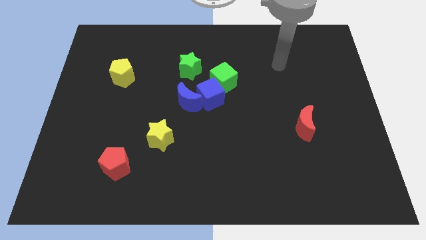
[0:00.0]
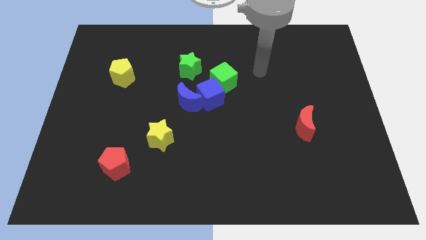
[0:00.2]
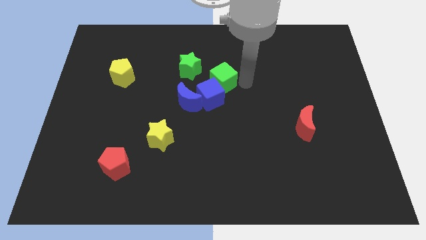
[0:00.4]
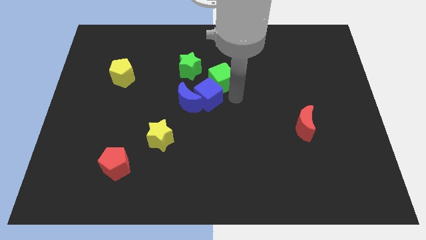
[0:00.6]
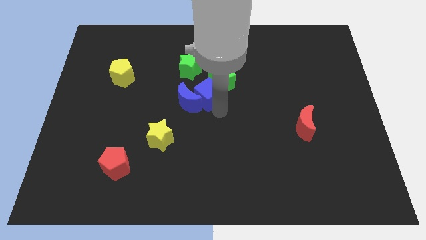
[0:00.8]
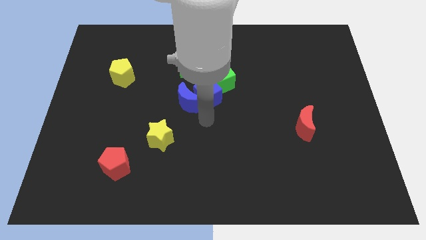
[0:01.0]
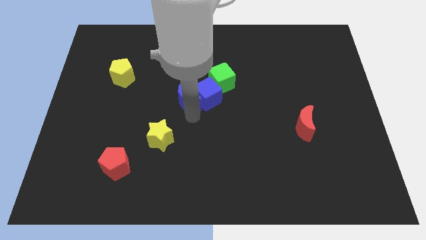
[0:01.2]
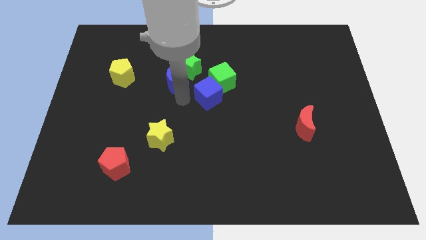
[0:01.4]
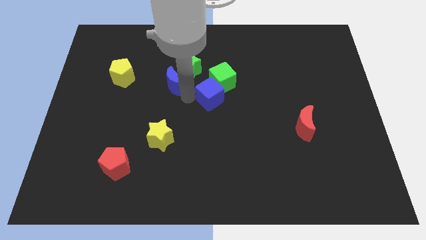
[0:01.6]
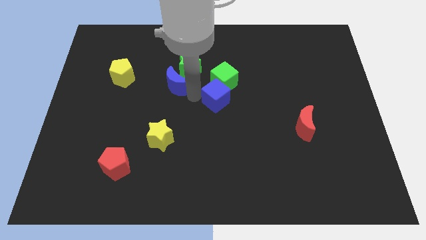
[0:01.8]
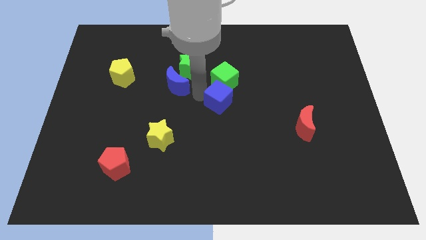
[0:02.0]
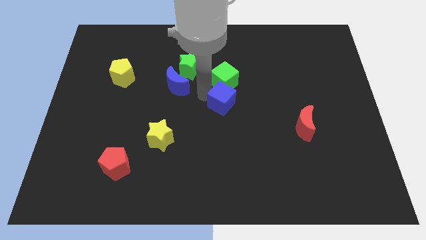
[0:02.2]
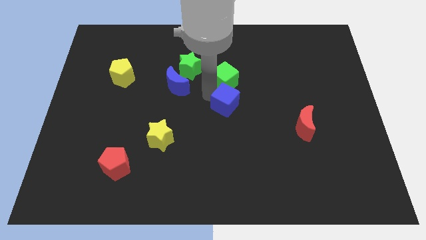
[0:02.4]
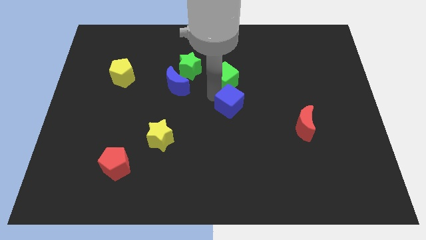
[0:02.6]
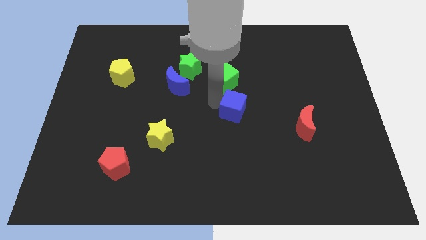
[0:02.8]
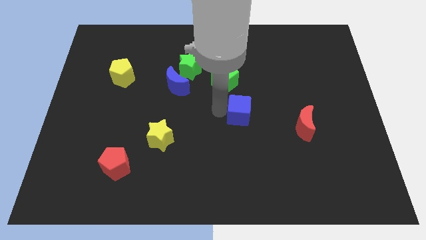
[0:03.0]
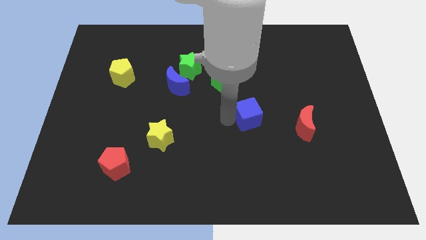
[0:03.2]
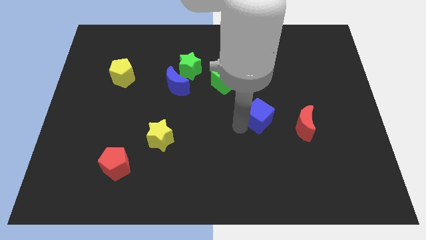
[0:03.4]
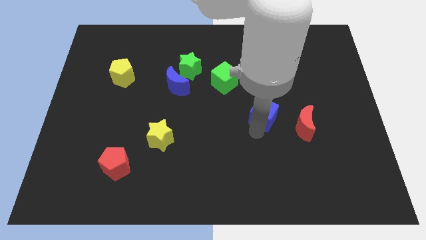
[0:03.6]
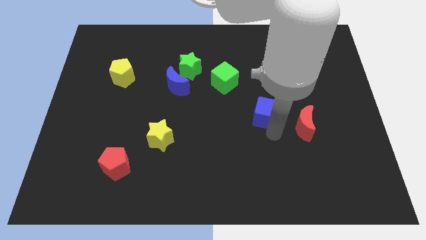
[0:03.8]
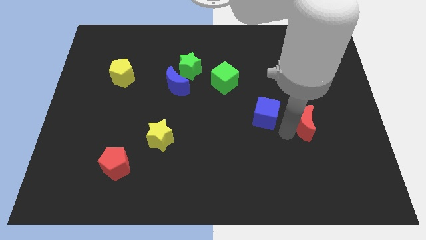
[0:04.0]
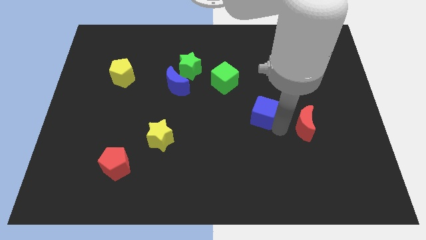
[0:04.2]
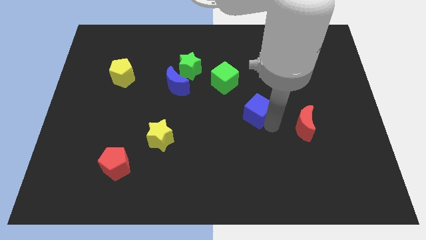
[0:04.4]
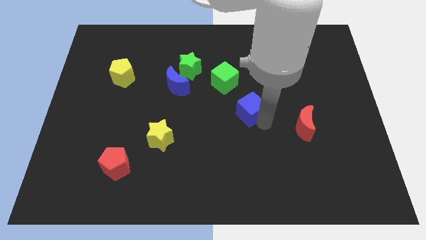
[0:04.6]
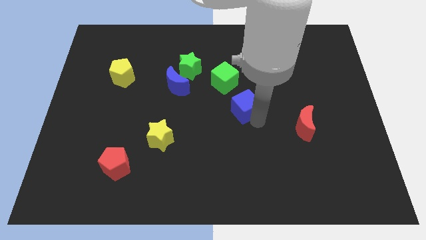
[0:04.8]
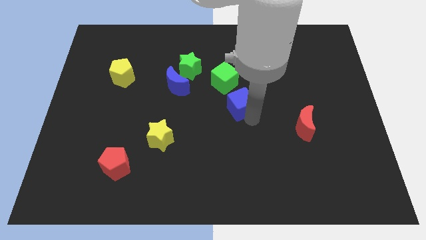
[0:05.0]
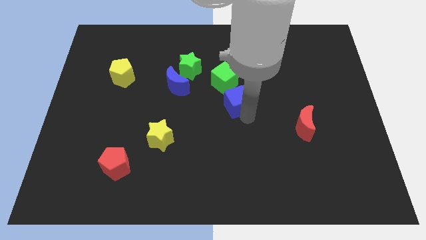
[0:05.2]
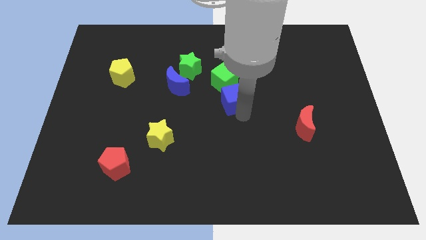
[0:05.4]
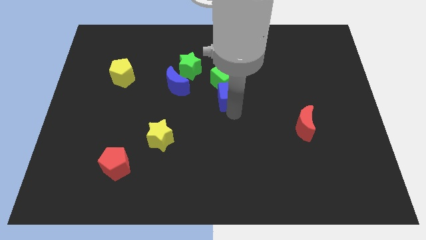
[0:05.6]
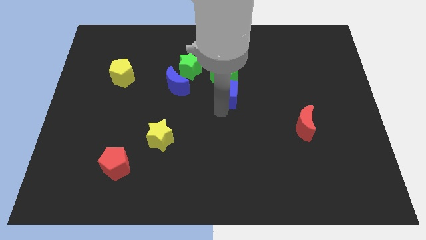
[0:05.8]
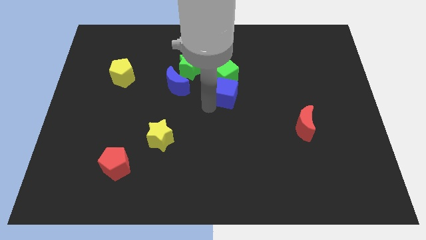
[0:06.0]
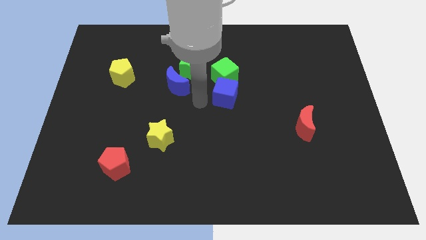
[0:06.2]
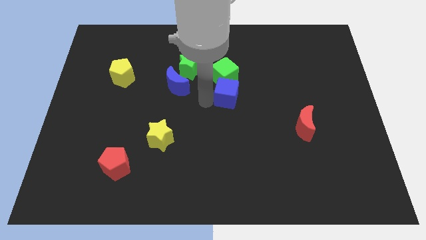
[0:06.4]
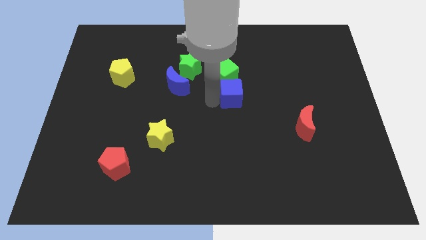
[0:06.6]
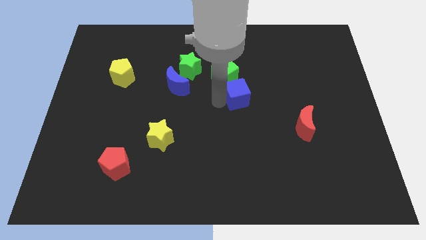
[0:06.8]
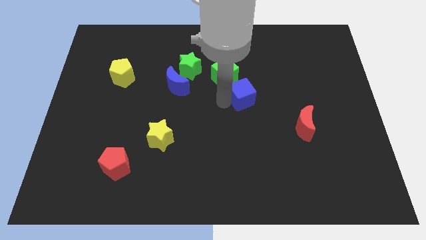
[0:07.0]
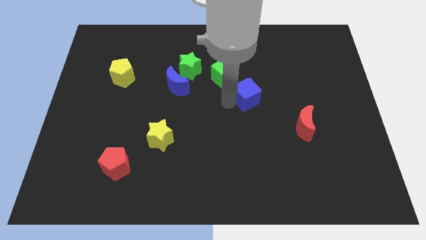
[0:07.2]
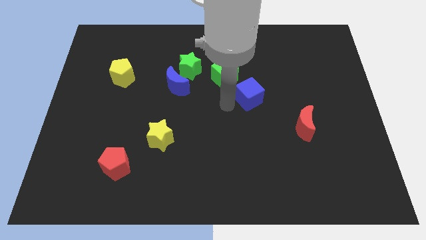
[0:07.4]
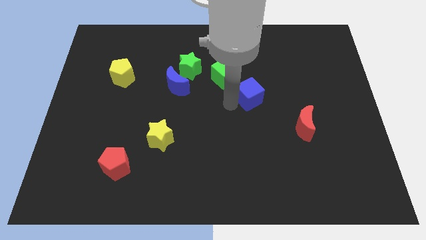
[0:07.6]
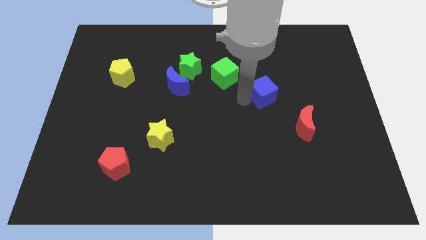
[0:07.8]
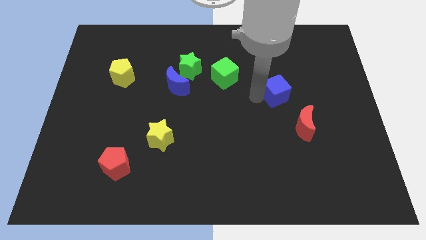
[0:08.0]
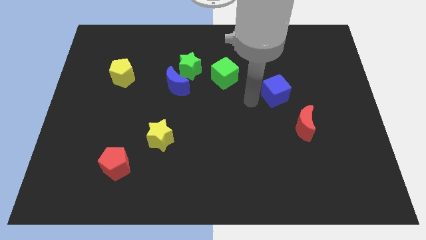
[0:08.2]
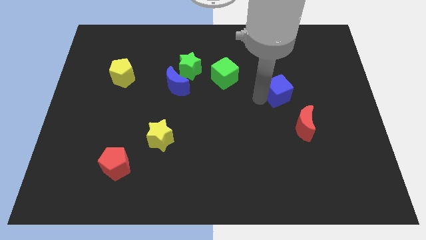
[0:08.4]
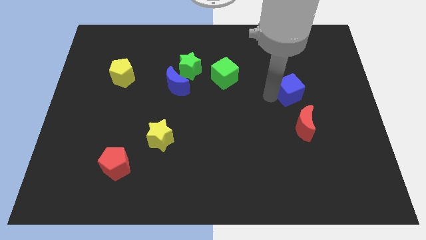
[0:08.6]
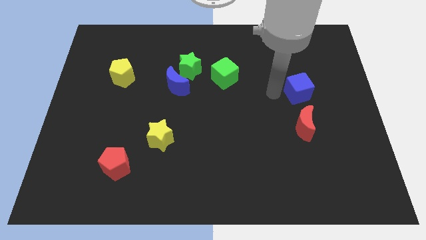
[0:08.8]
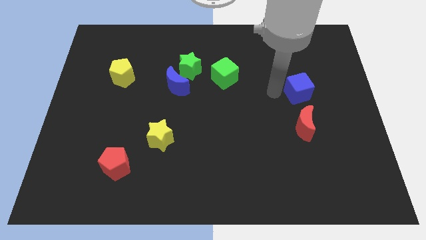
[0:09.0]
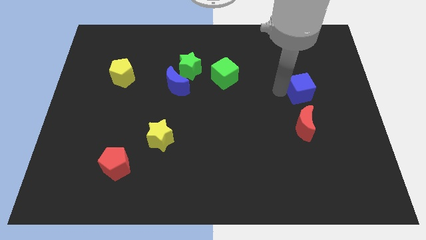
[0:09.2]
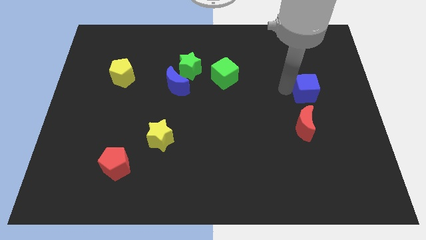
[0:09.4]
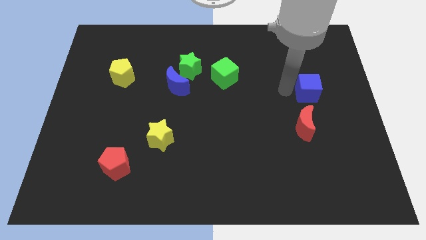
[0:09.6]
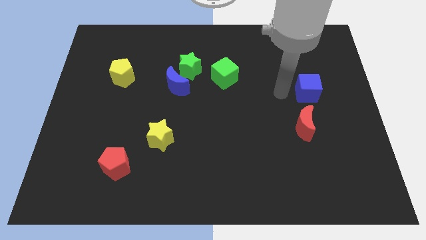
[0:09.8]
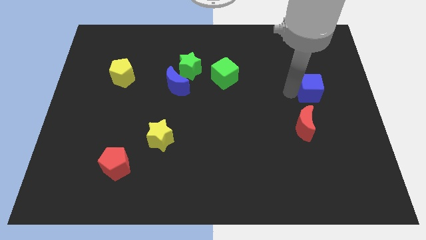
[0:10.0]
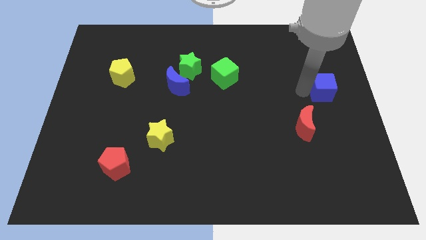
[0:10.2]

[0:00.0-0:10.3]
put the blue cube to the center right

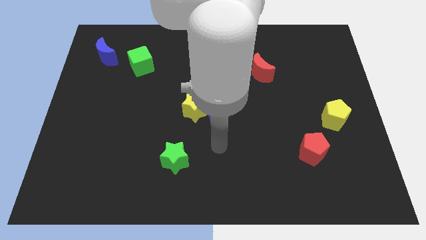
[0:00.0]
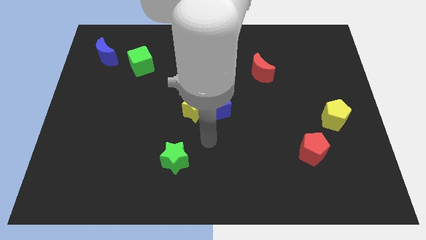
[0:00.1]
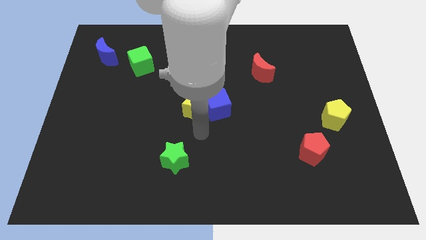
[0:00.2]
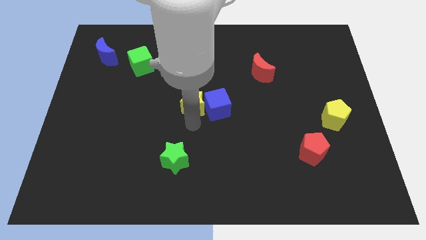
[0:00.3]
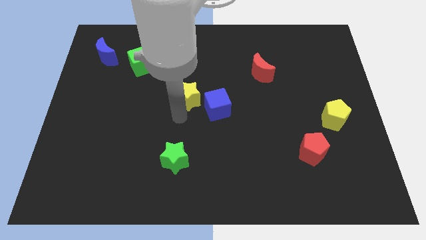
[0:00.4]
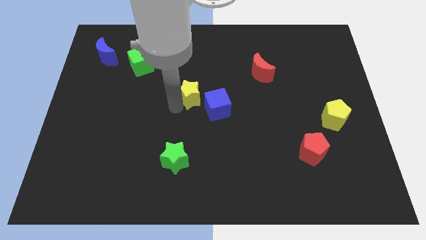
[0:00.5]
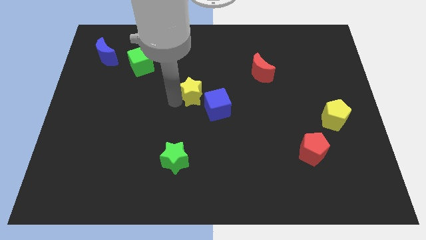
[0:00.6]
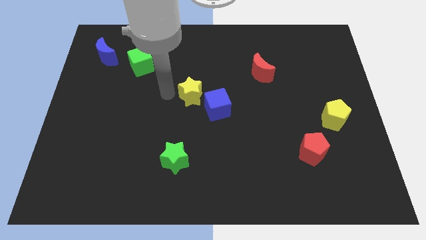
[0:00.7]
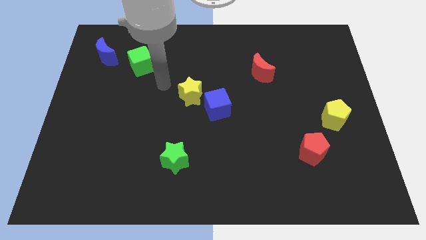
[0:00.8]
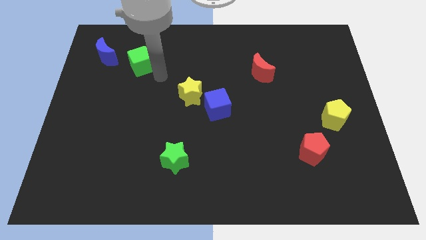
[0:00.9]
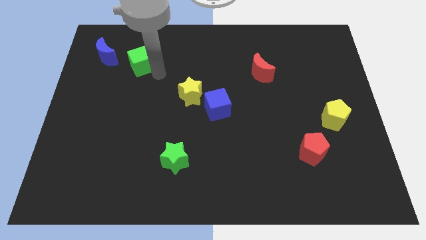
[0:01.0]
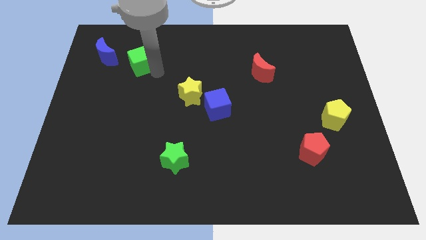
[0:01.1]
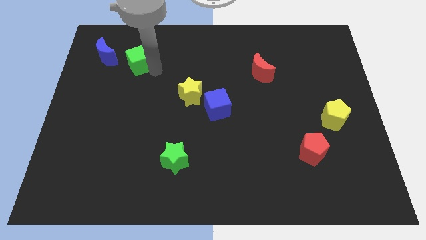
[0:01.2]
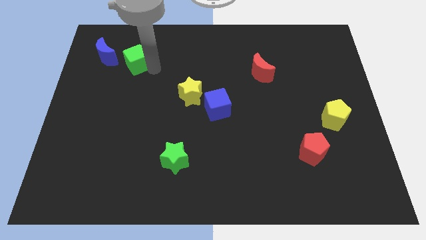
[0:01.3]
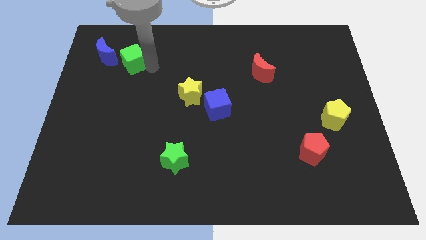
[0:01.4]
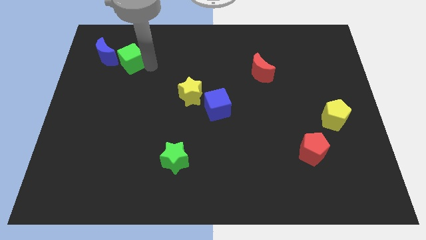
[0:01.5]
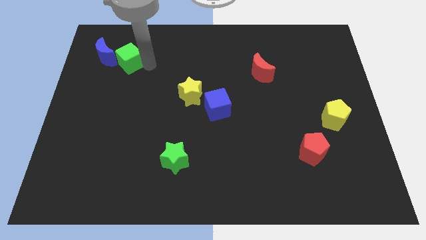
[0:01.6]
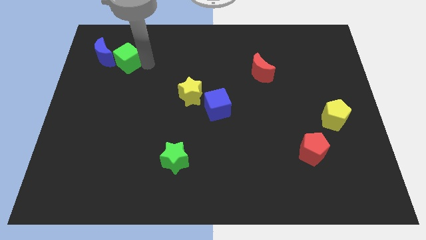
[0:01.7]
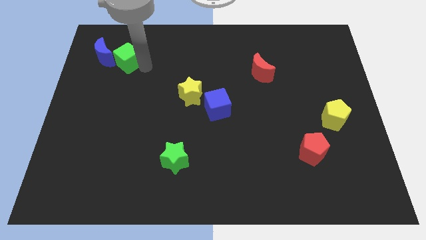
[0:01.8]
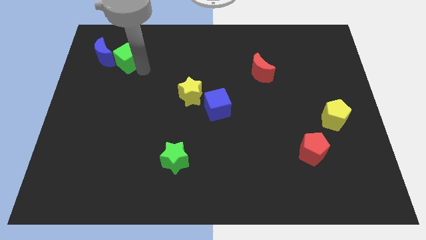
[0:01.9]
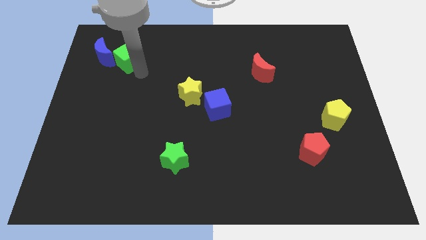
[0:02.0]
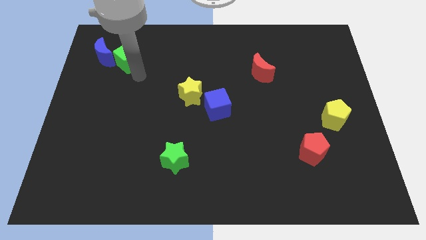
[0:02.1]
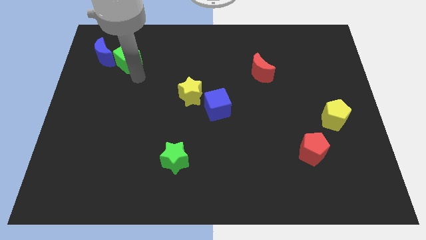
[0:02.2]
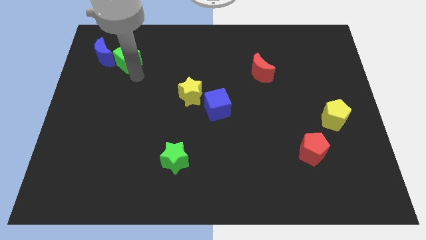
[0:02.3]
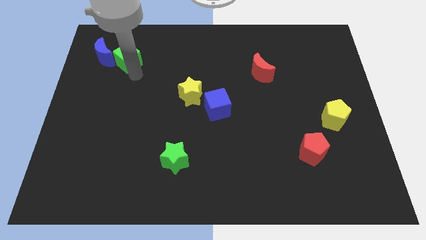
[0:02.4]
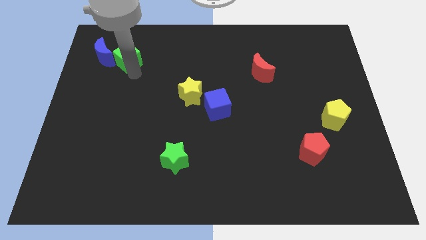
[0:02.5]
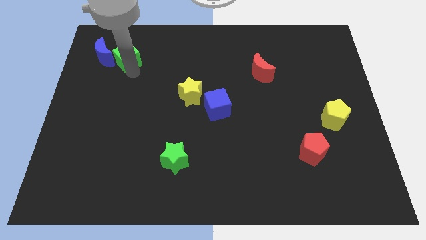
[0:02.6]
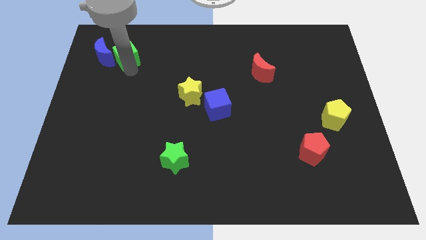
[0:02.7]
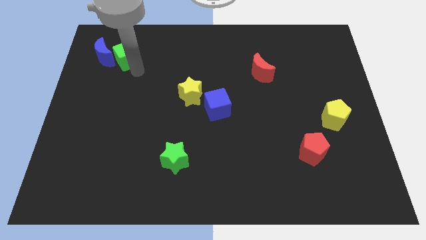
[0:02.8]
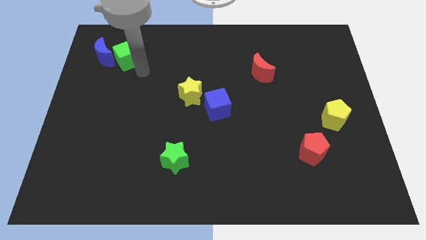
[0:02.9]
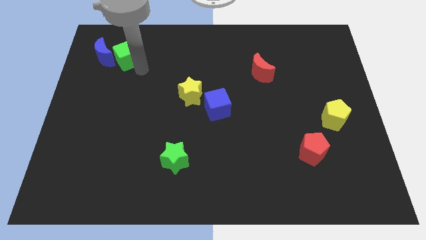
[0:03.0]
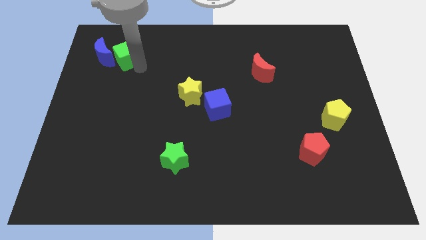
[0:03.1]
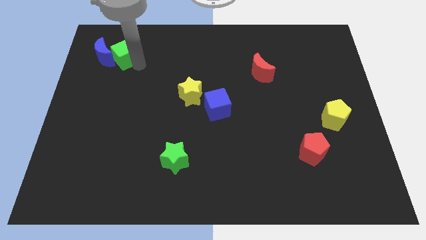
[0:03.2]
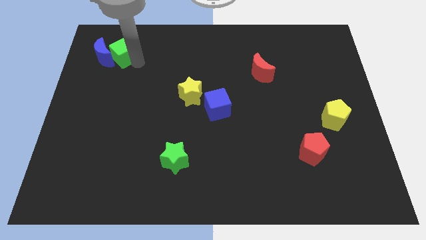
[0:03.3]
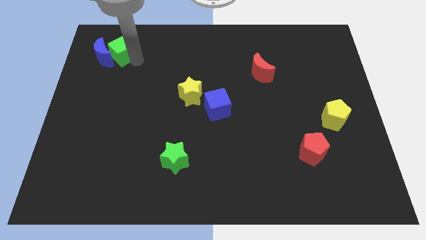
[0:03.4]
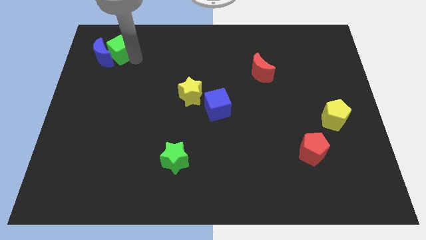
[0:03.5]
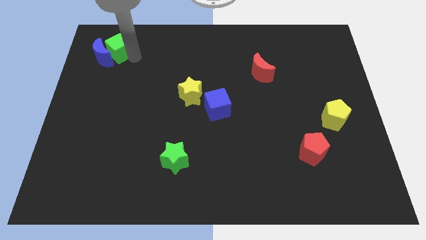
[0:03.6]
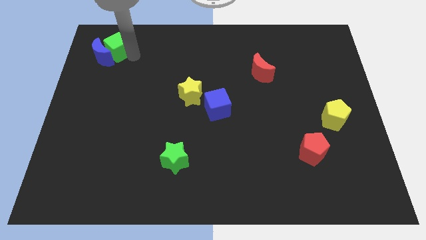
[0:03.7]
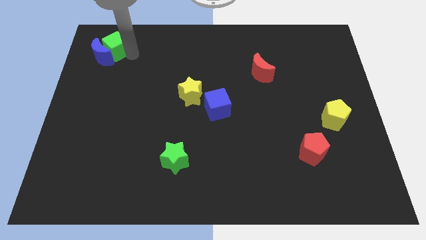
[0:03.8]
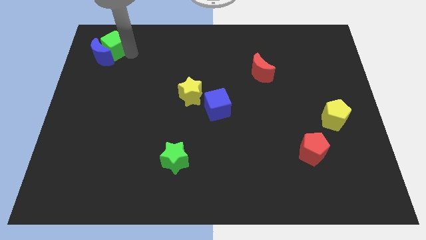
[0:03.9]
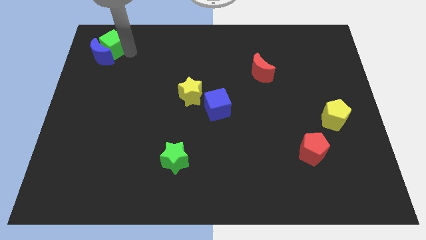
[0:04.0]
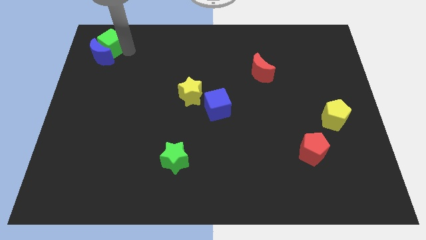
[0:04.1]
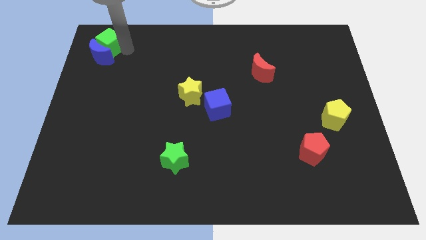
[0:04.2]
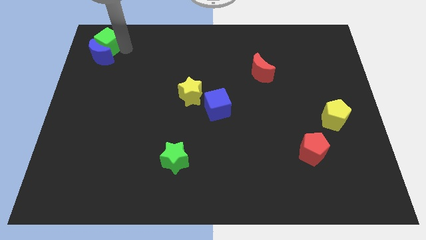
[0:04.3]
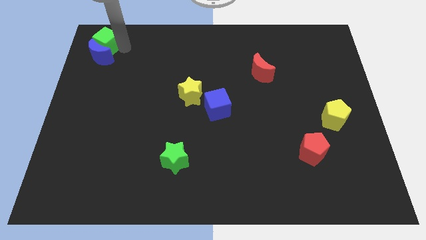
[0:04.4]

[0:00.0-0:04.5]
slide the green cube to the top left of the board
